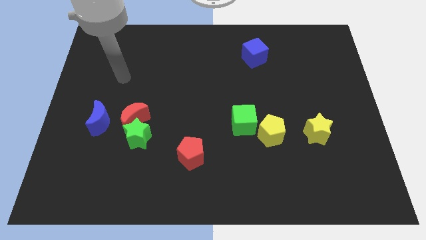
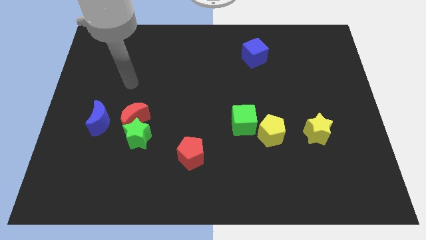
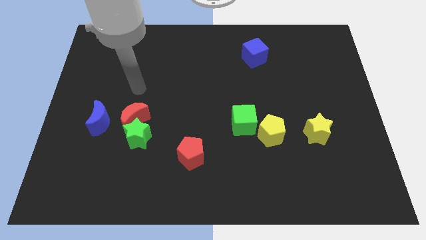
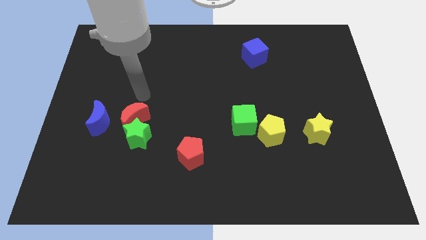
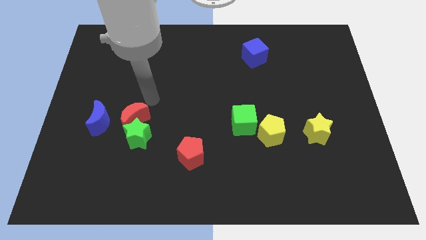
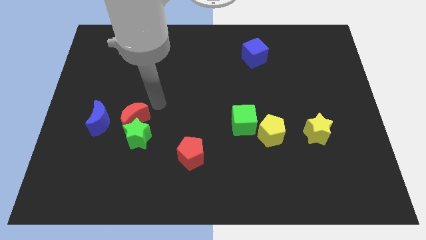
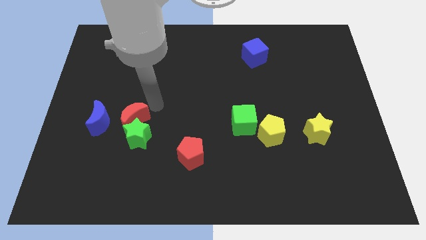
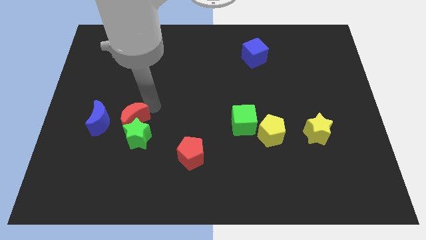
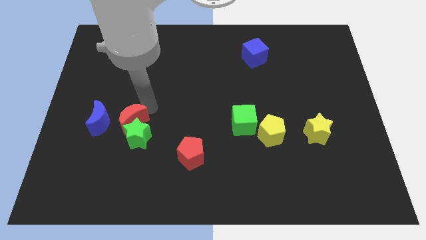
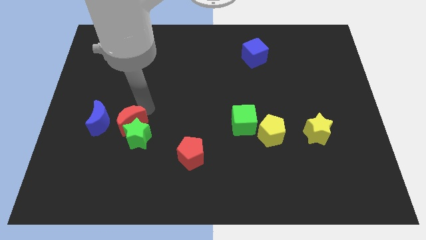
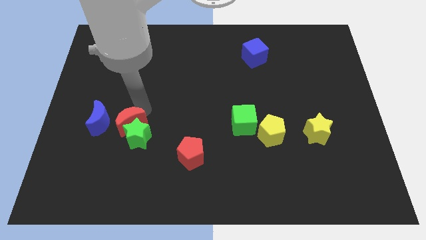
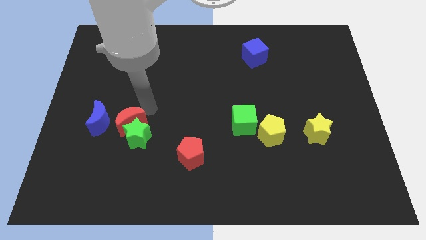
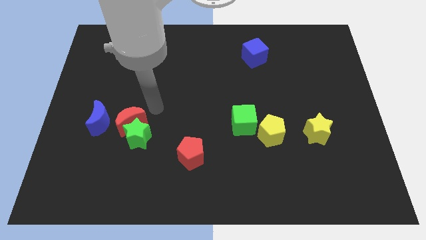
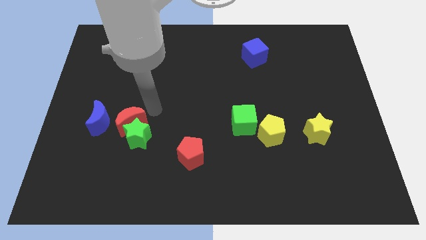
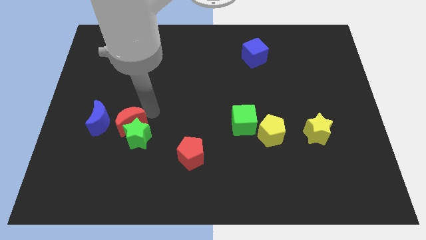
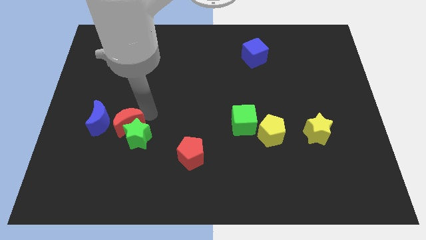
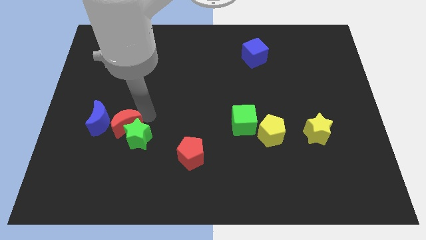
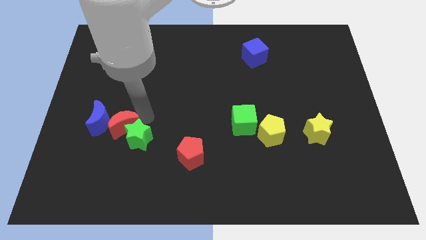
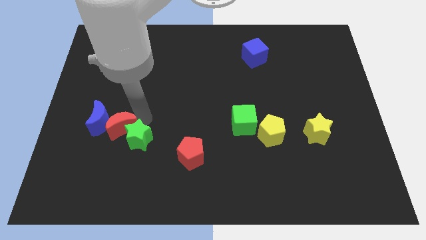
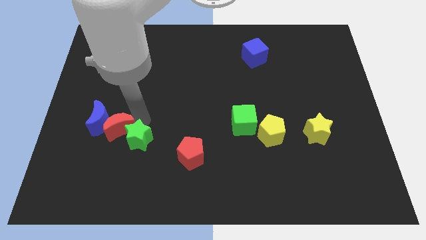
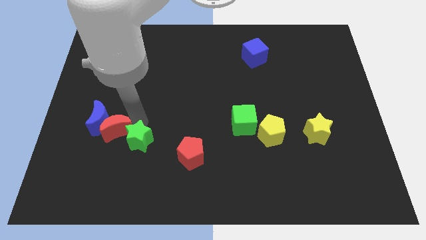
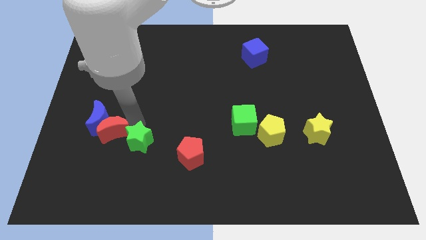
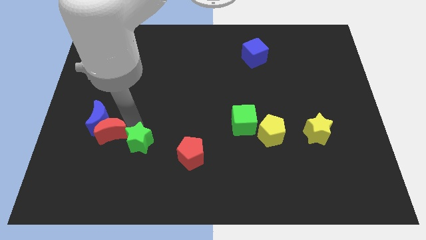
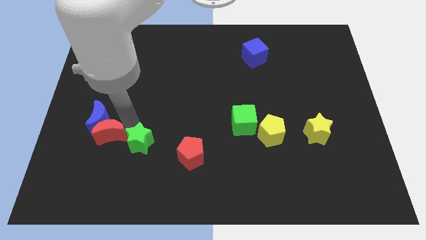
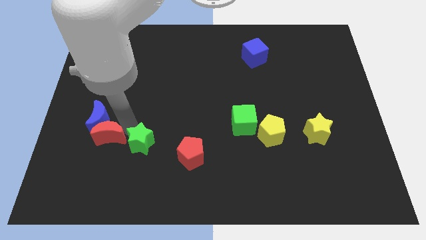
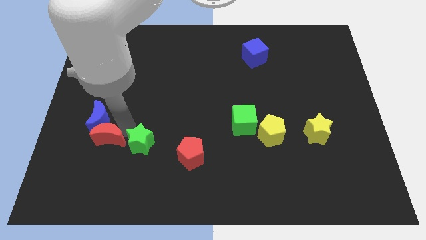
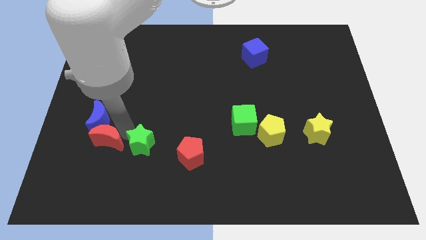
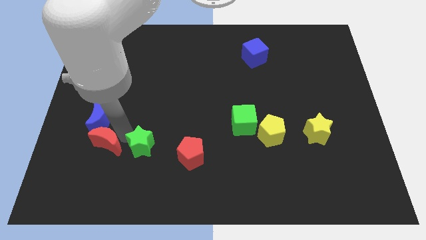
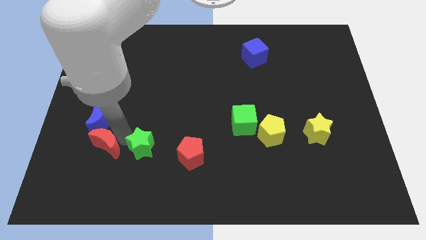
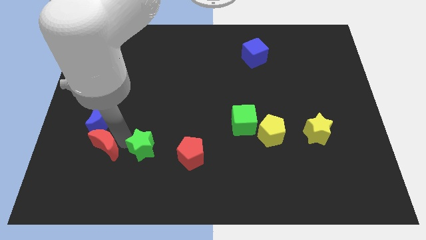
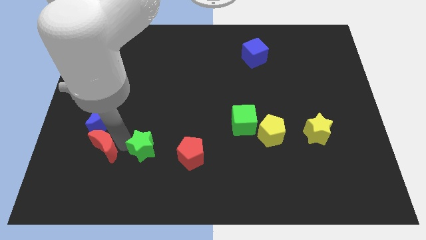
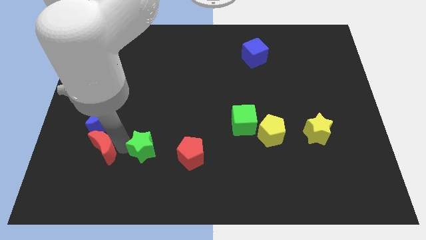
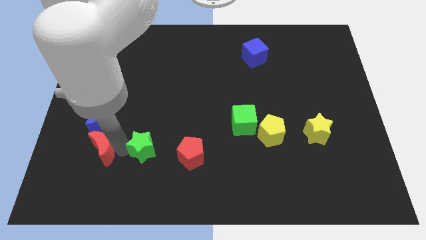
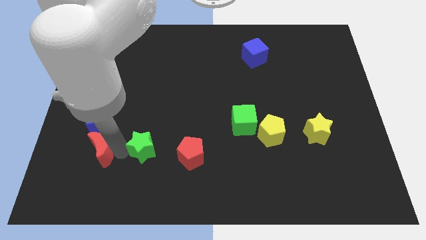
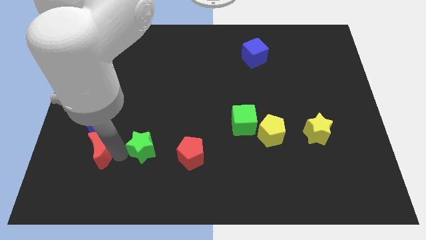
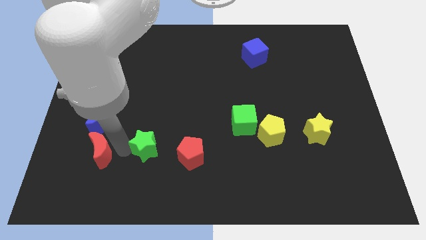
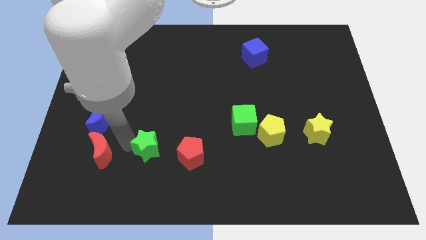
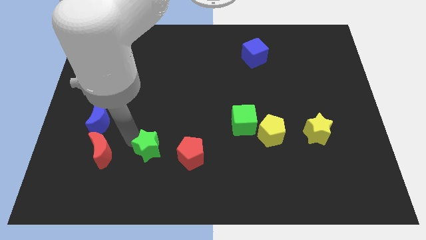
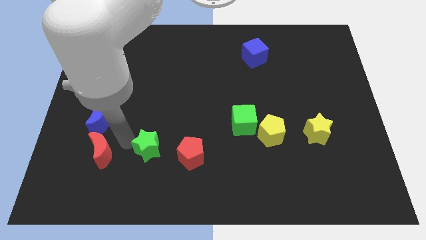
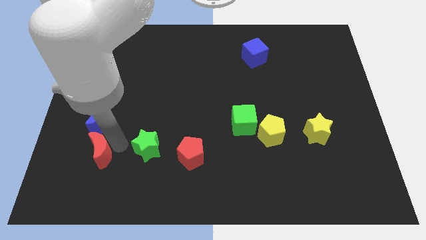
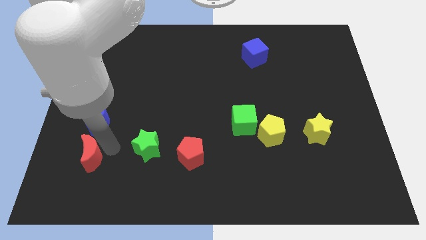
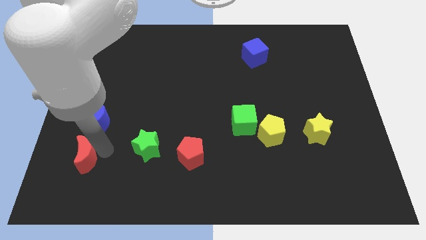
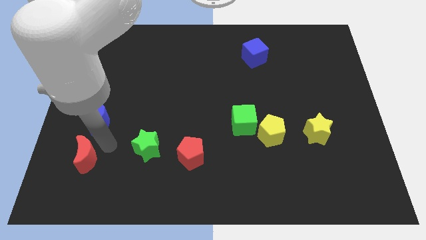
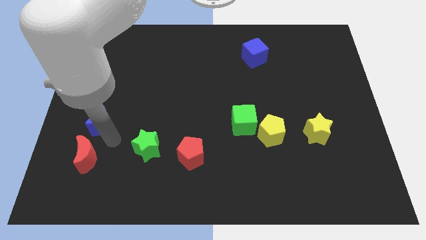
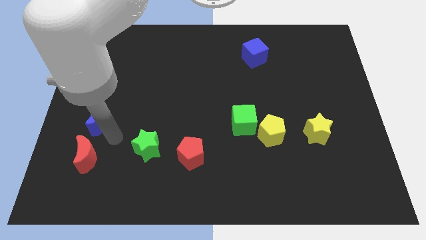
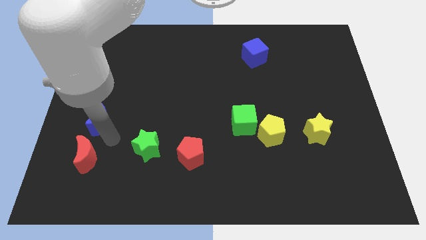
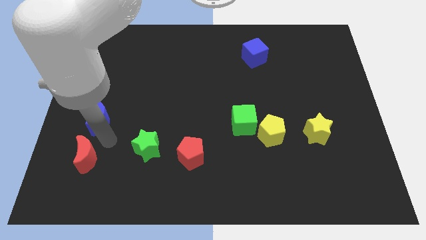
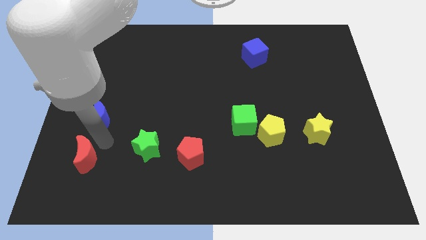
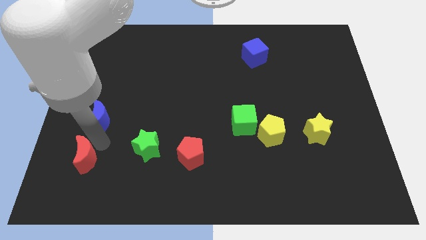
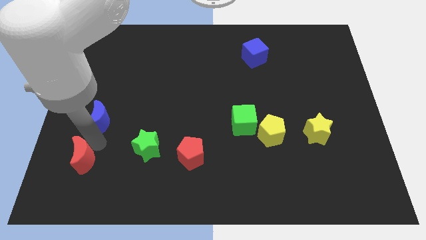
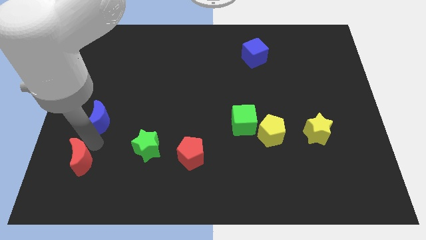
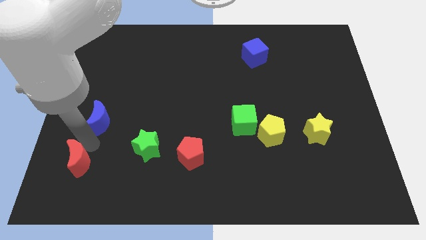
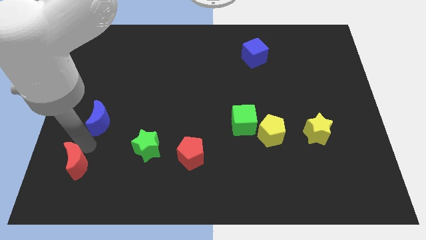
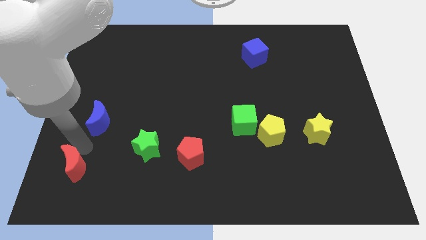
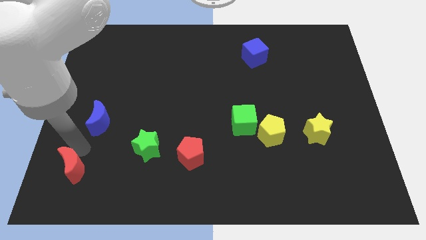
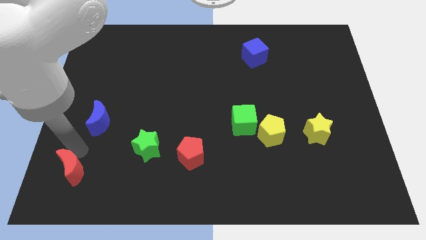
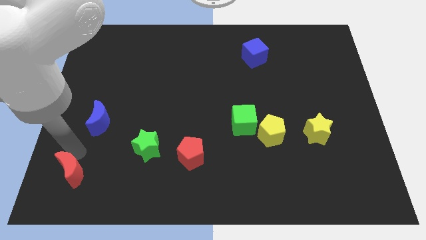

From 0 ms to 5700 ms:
slide the red moon to the bottom left corner

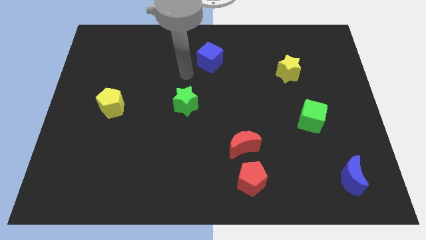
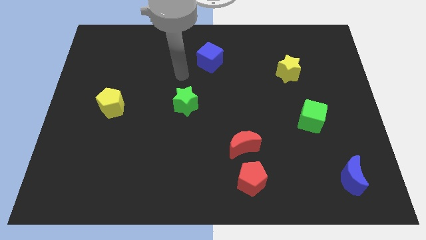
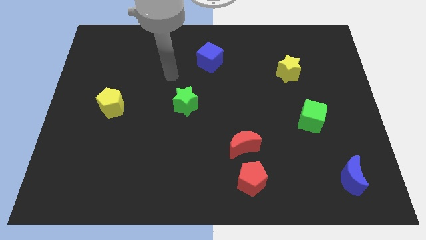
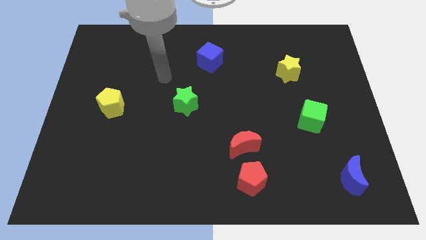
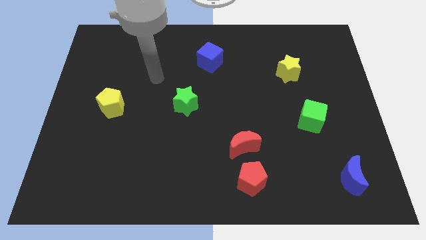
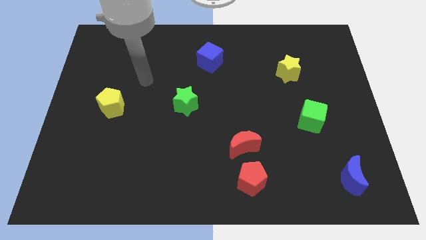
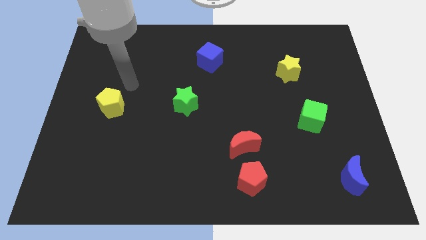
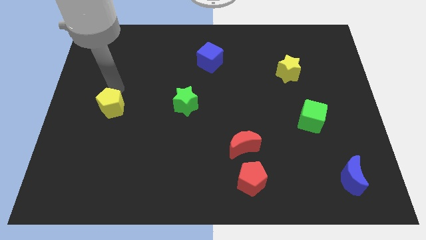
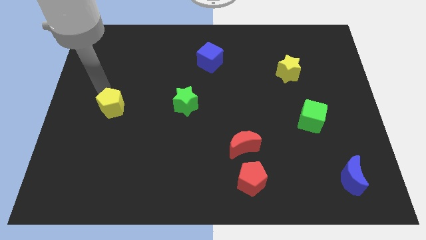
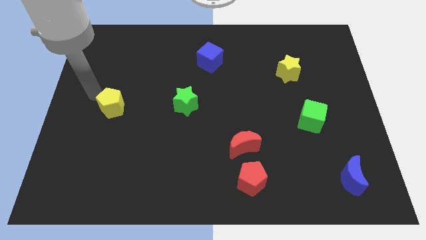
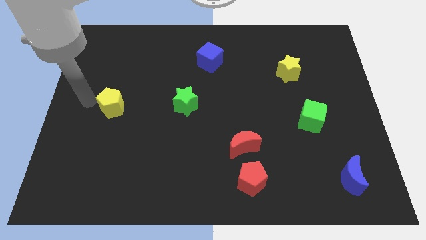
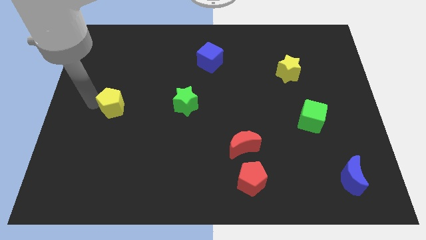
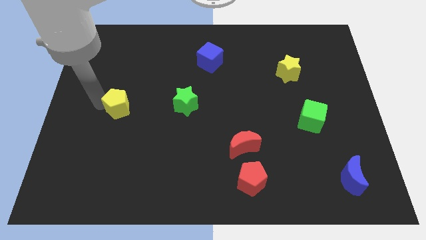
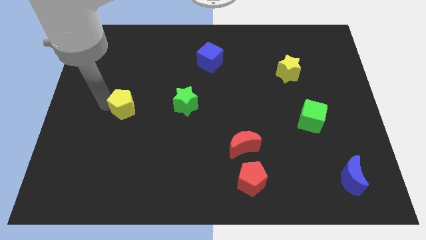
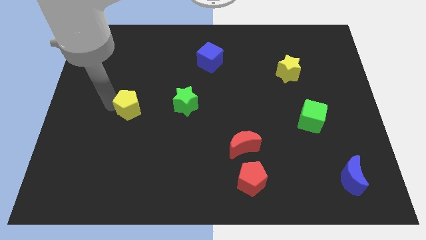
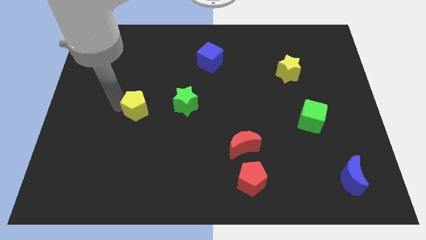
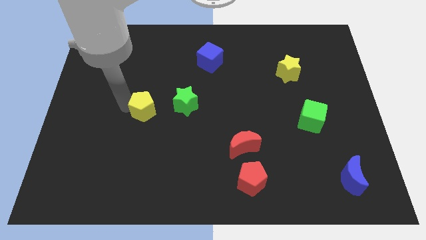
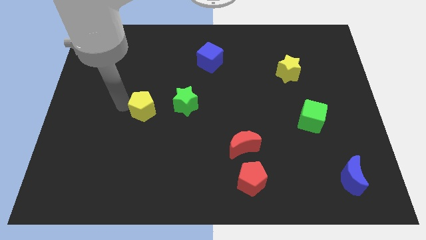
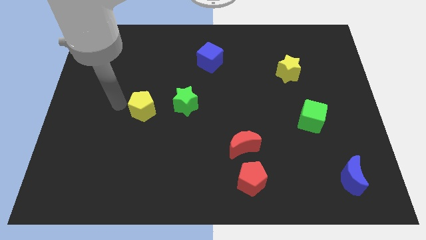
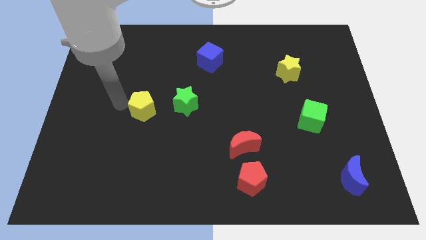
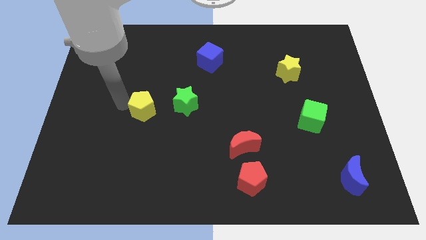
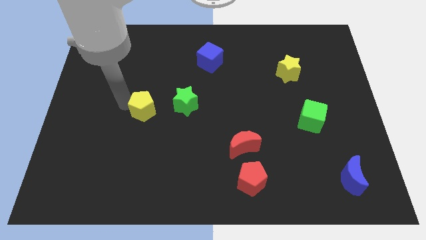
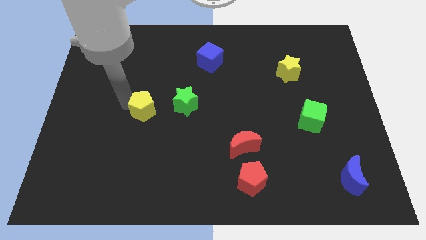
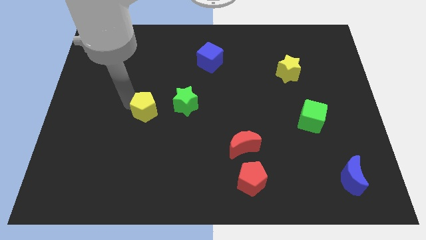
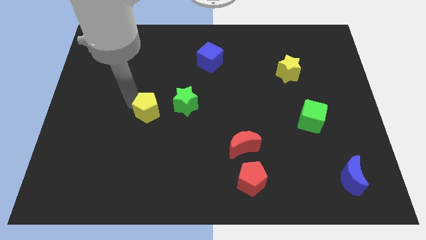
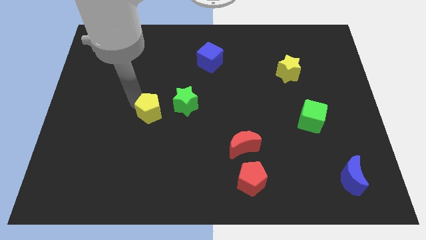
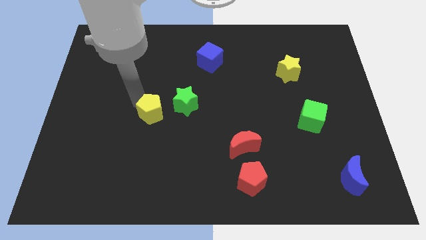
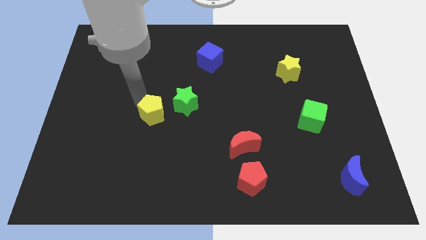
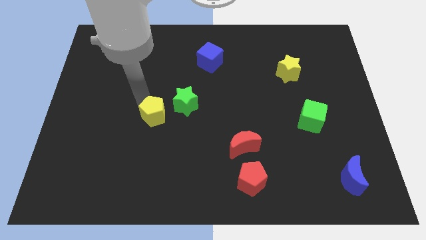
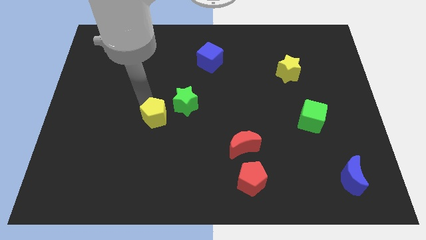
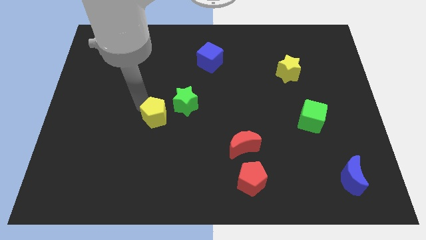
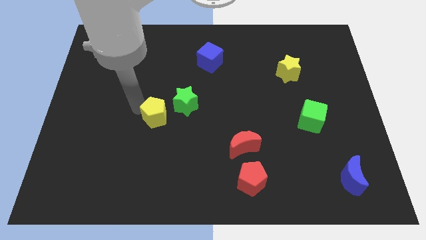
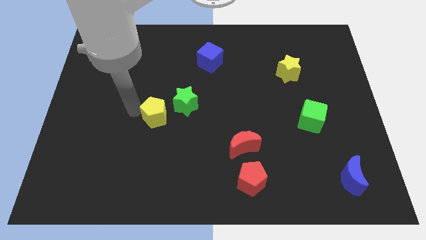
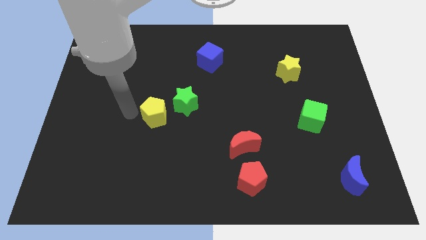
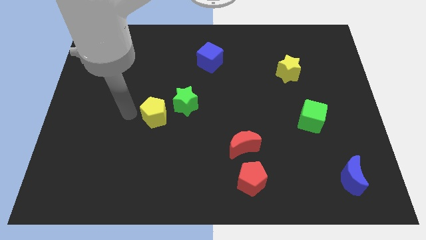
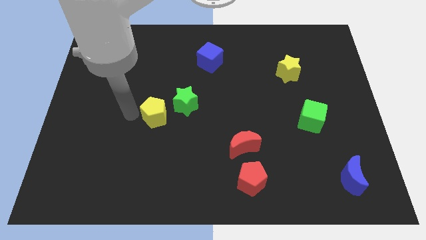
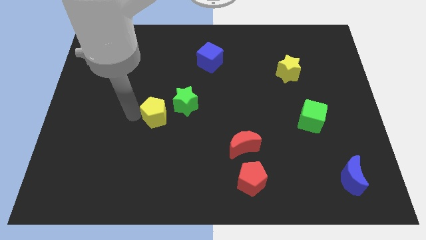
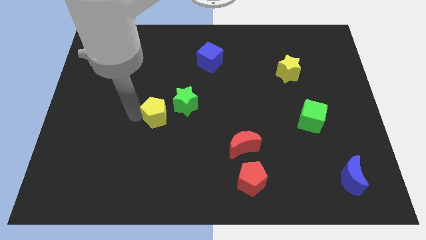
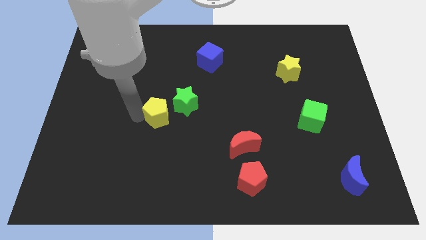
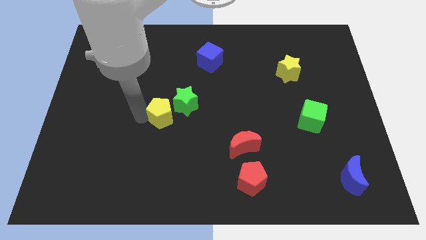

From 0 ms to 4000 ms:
push the yellow pentagon to the center of the board
